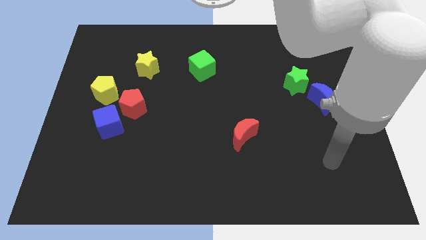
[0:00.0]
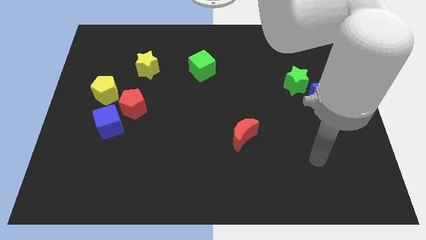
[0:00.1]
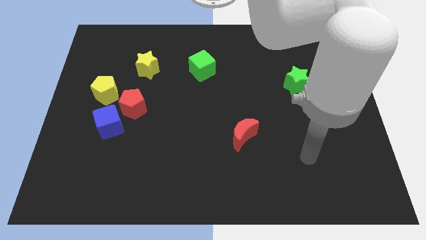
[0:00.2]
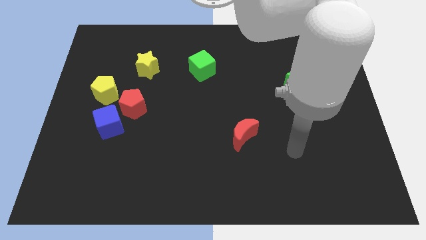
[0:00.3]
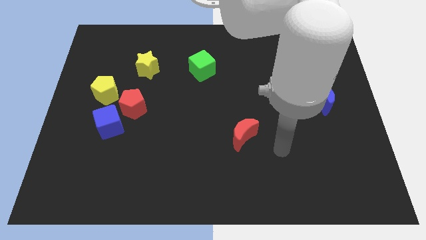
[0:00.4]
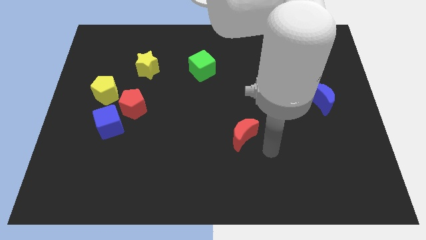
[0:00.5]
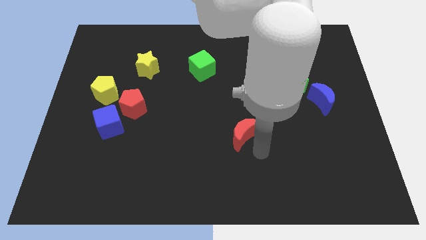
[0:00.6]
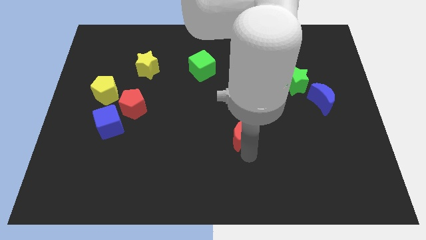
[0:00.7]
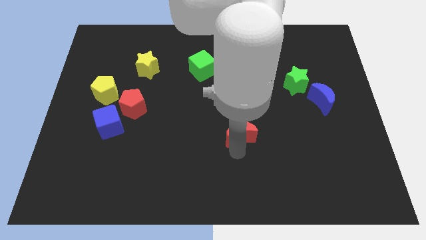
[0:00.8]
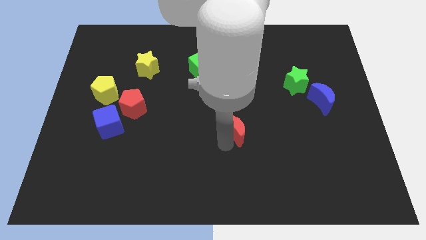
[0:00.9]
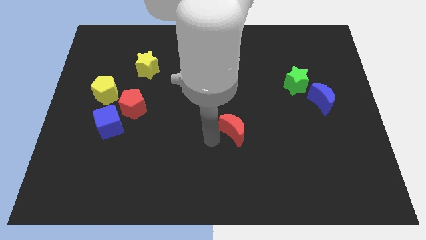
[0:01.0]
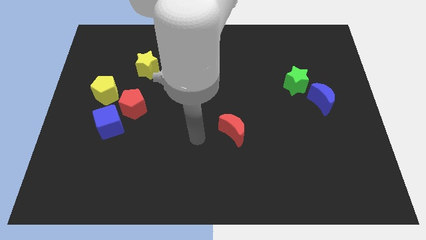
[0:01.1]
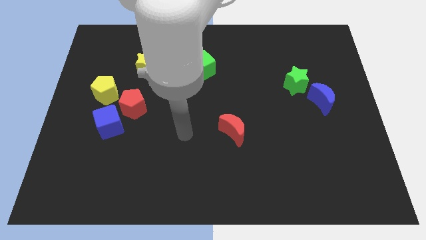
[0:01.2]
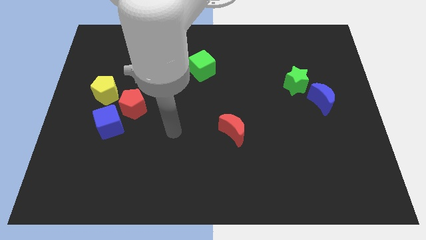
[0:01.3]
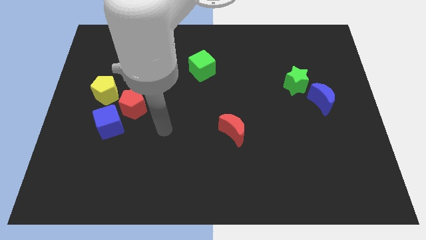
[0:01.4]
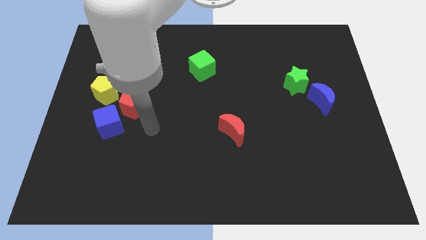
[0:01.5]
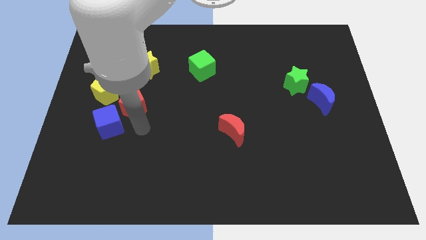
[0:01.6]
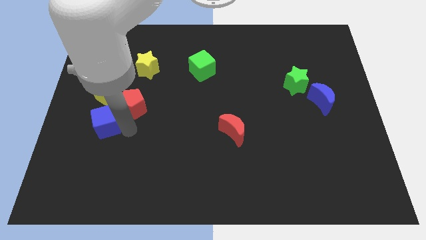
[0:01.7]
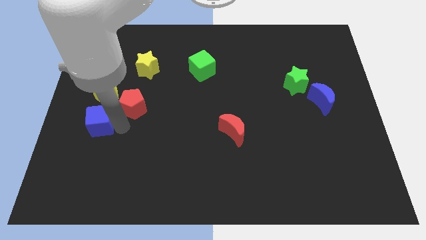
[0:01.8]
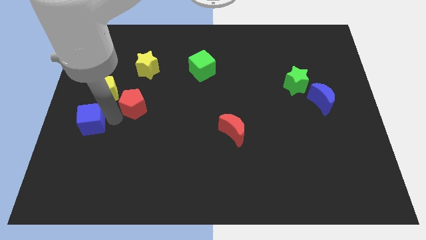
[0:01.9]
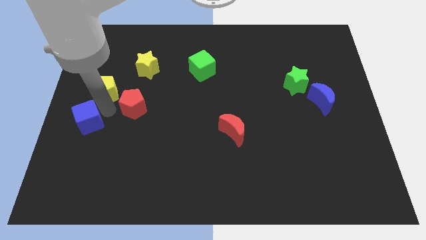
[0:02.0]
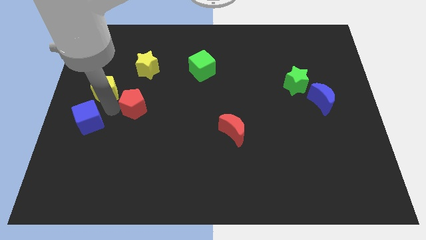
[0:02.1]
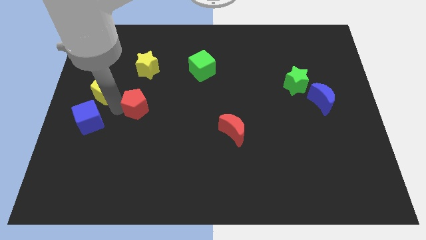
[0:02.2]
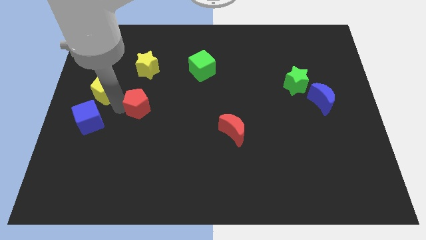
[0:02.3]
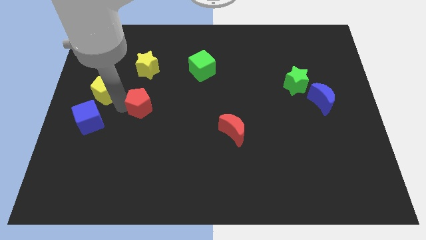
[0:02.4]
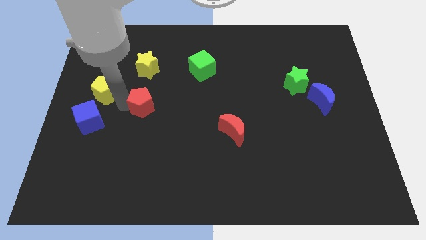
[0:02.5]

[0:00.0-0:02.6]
pull the red pentagon apart from the blue cube and yellow pentagon

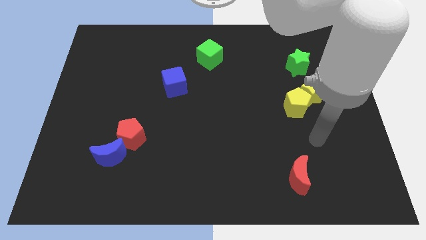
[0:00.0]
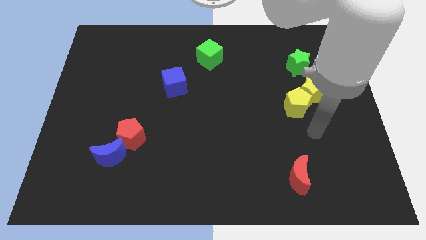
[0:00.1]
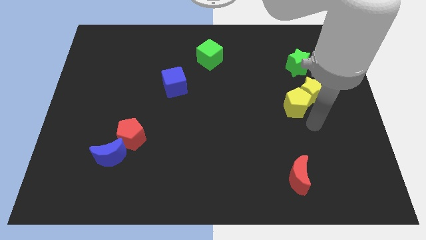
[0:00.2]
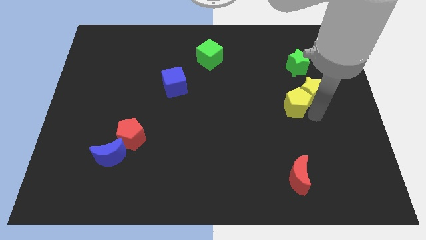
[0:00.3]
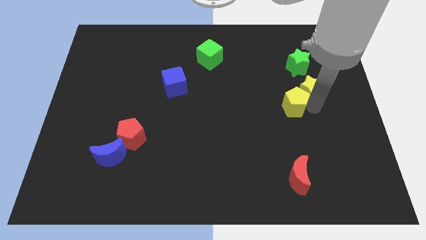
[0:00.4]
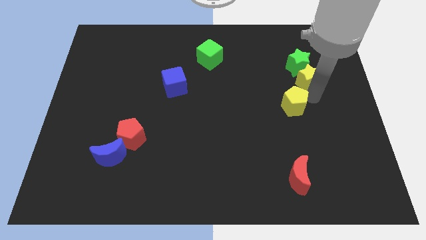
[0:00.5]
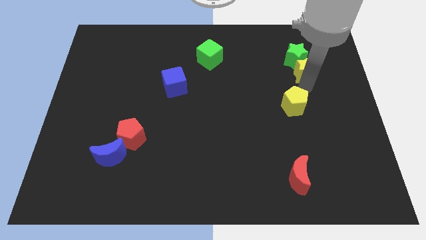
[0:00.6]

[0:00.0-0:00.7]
move the yellow pentagon away from the yellow star

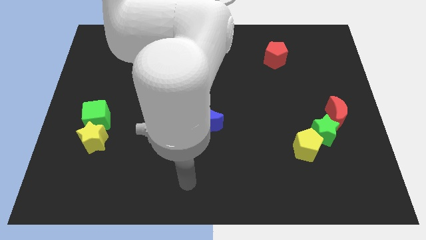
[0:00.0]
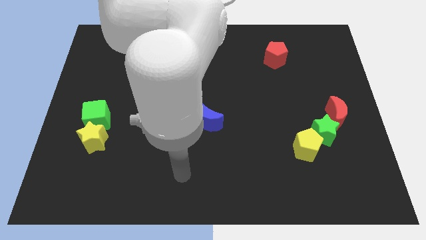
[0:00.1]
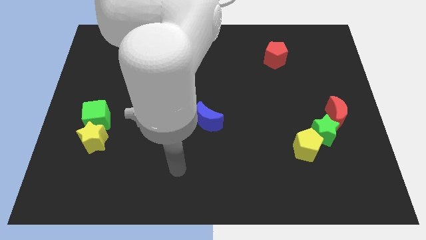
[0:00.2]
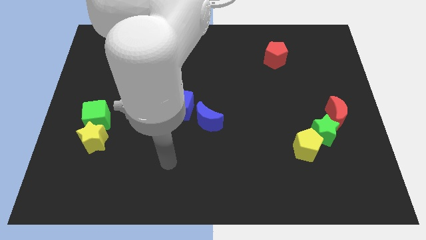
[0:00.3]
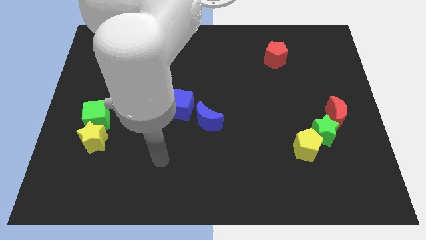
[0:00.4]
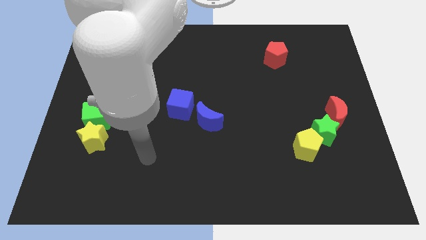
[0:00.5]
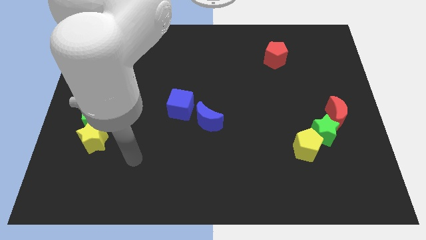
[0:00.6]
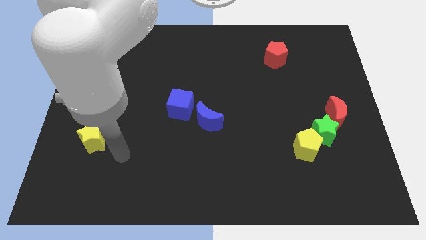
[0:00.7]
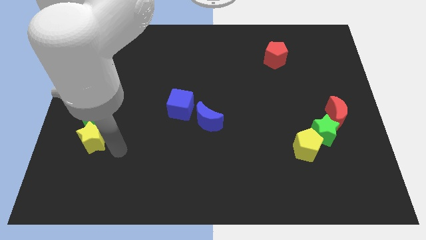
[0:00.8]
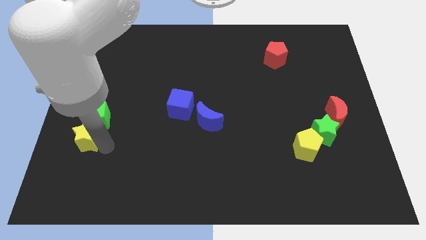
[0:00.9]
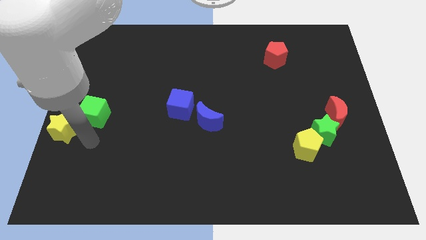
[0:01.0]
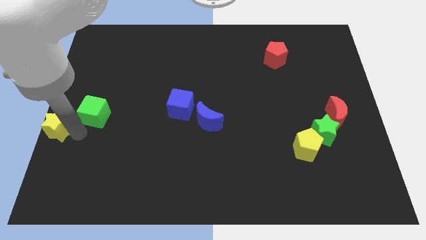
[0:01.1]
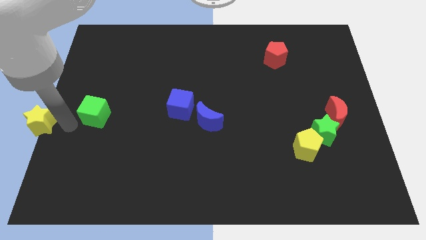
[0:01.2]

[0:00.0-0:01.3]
pull the green cube apart from the yellow star

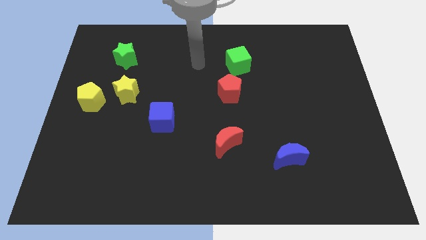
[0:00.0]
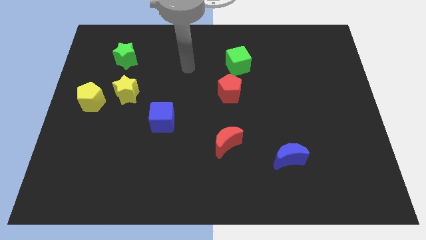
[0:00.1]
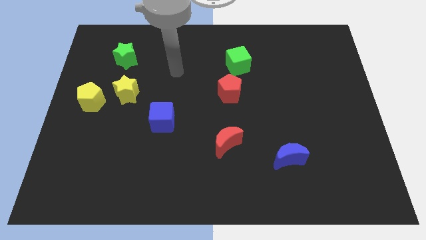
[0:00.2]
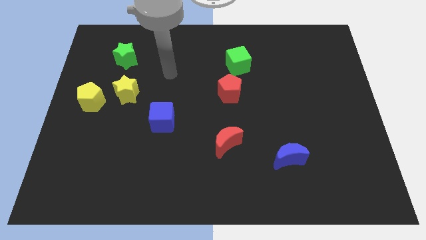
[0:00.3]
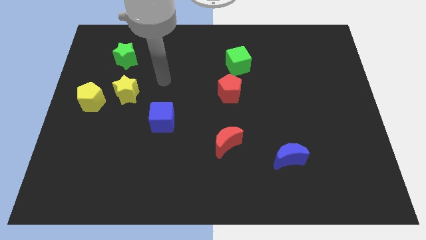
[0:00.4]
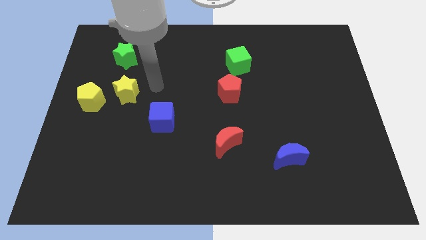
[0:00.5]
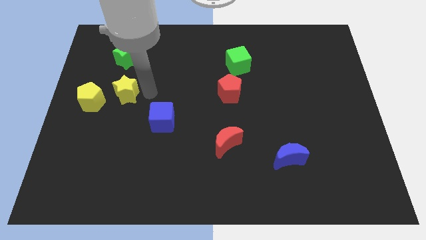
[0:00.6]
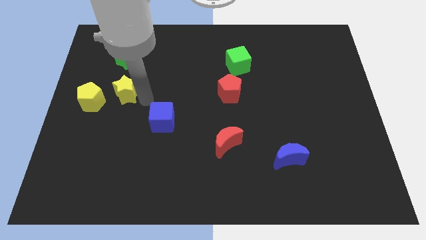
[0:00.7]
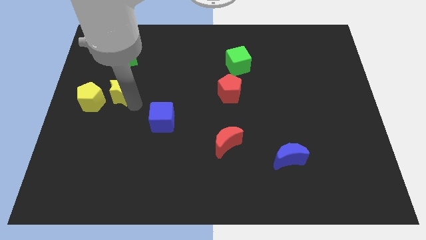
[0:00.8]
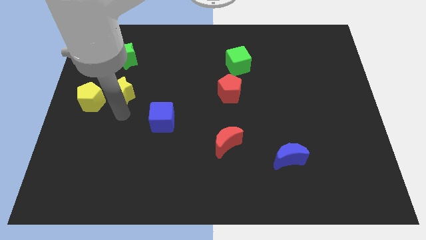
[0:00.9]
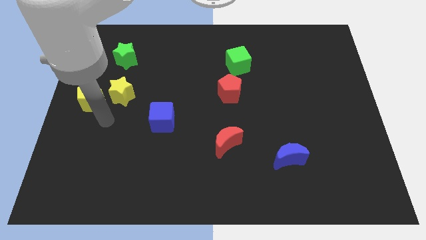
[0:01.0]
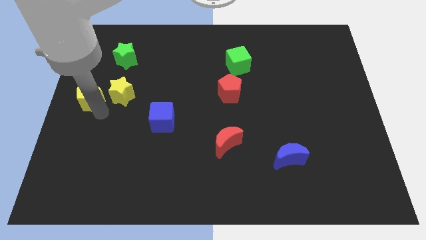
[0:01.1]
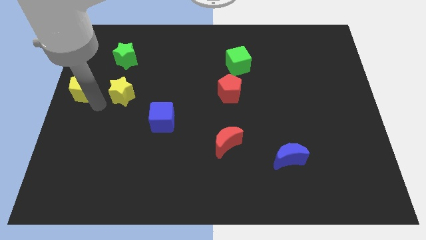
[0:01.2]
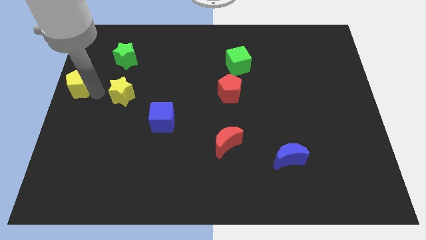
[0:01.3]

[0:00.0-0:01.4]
move the yellow star away from the yellow pentagon

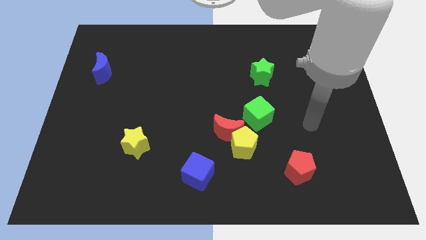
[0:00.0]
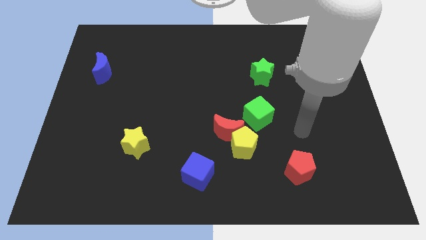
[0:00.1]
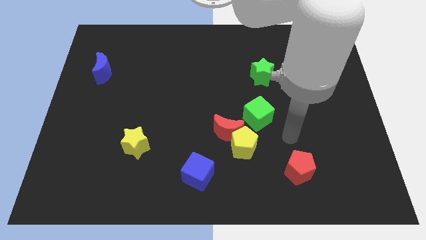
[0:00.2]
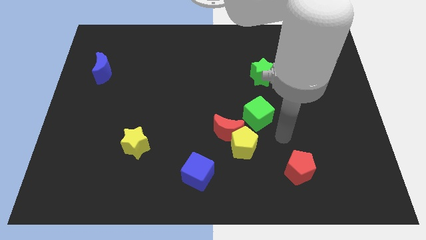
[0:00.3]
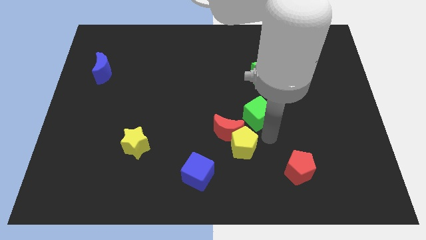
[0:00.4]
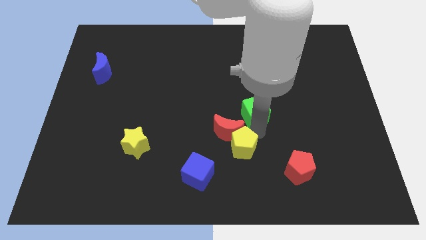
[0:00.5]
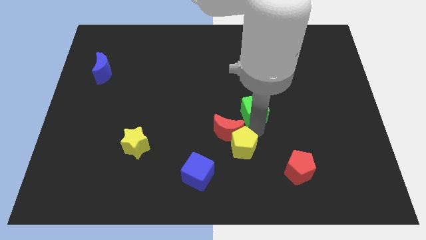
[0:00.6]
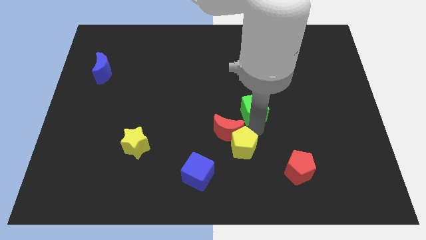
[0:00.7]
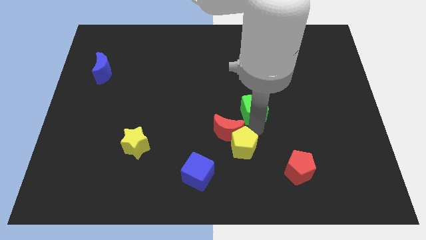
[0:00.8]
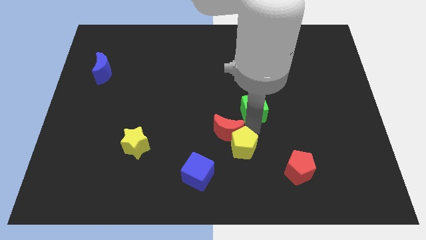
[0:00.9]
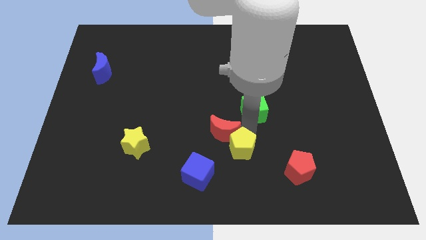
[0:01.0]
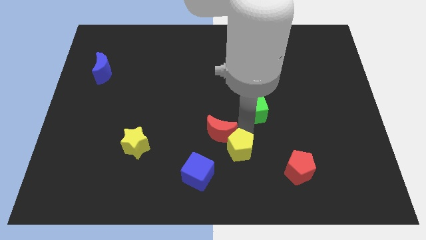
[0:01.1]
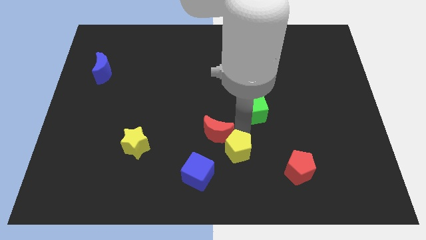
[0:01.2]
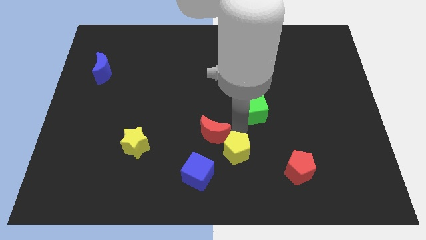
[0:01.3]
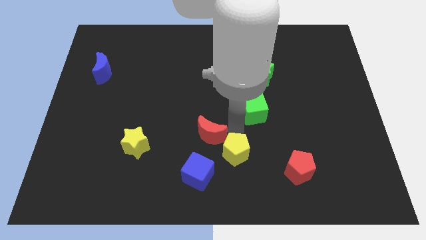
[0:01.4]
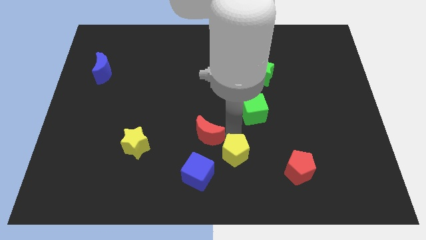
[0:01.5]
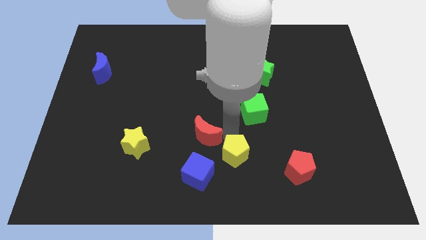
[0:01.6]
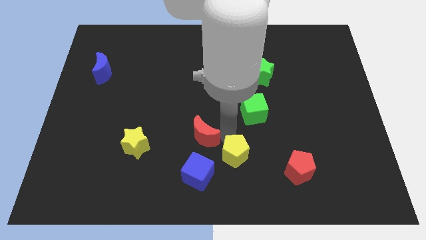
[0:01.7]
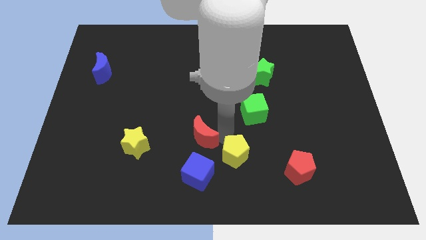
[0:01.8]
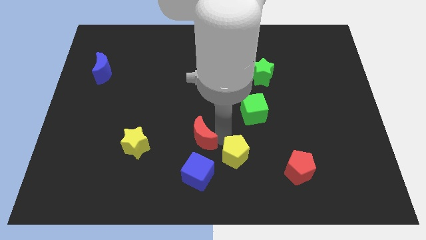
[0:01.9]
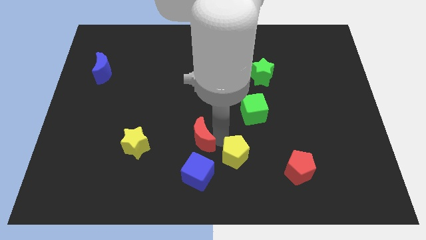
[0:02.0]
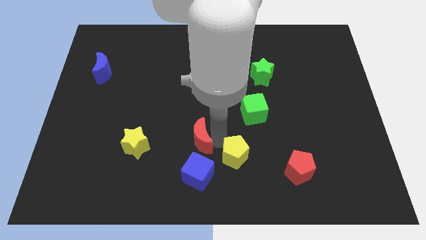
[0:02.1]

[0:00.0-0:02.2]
move the red moon away from the yellow pentagon and green cube

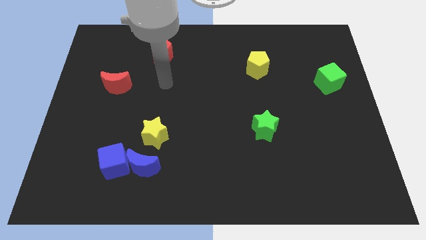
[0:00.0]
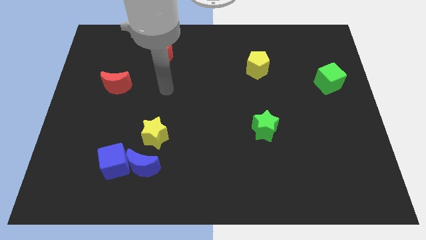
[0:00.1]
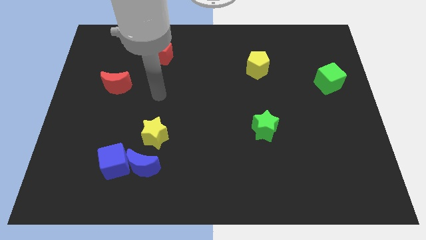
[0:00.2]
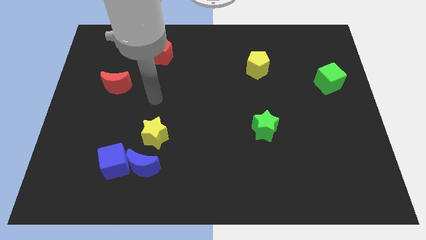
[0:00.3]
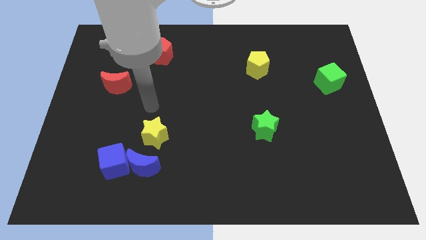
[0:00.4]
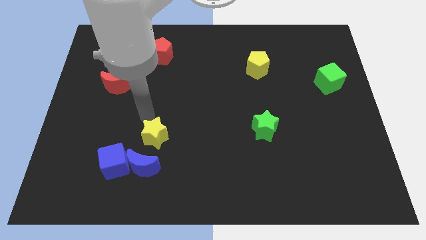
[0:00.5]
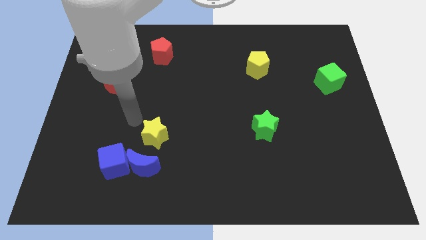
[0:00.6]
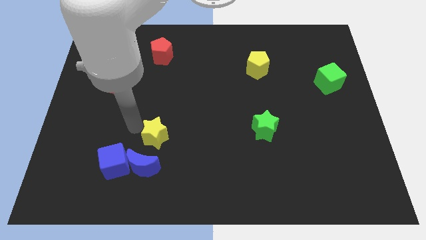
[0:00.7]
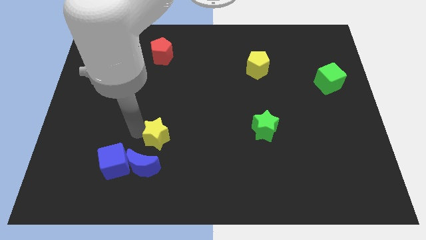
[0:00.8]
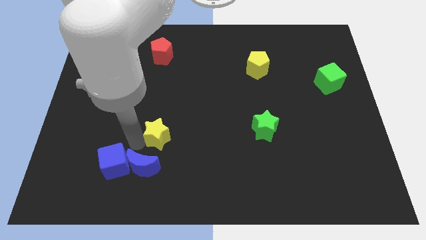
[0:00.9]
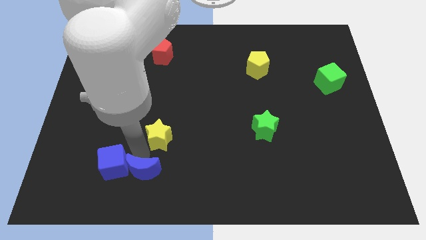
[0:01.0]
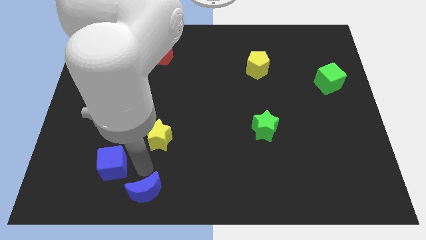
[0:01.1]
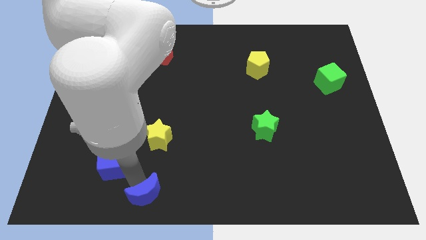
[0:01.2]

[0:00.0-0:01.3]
separate the blue cube from the blue moon
